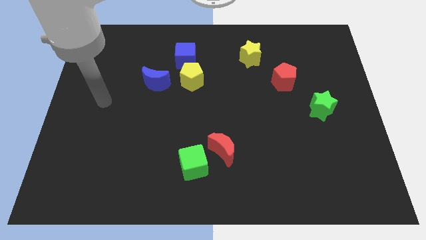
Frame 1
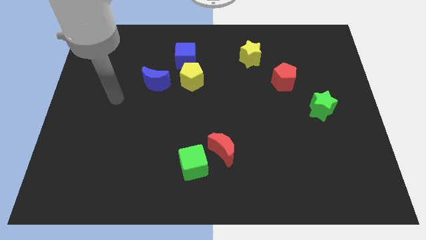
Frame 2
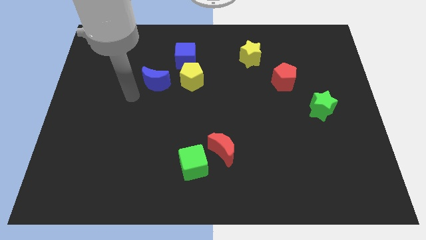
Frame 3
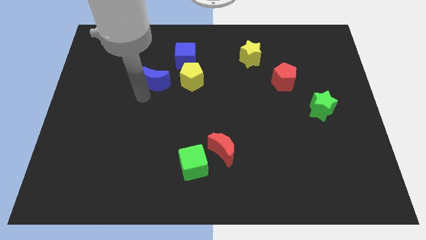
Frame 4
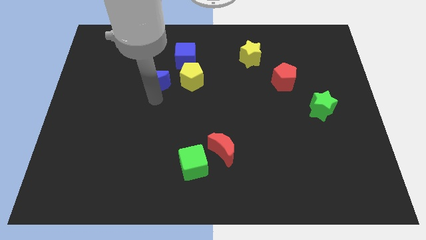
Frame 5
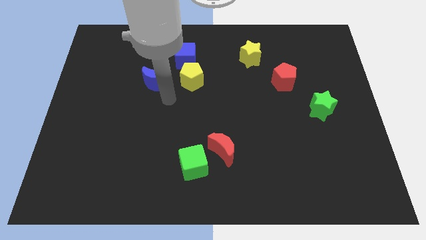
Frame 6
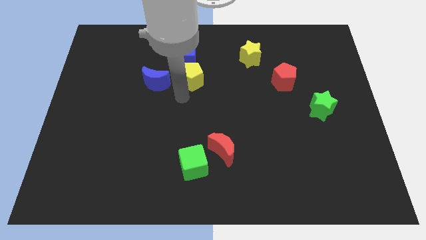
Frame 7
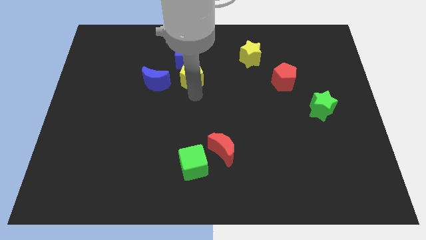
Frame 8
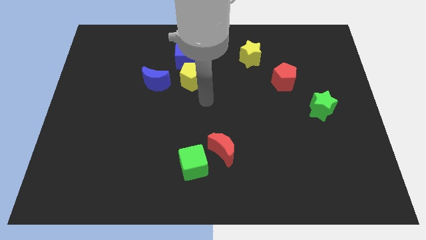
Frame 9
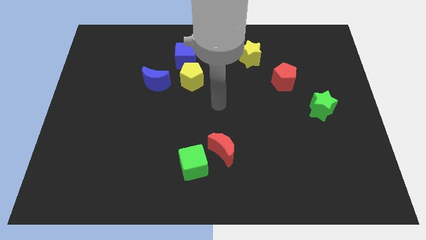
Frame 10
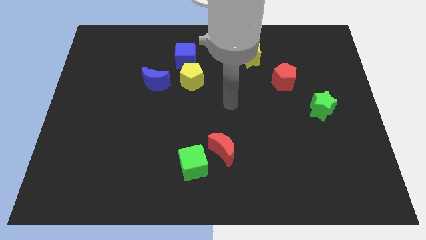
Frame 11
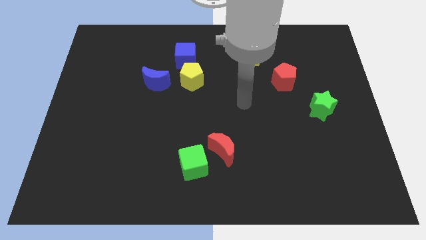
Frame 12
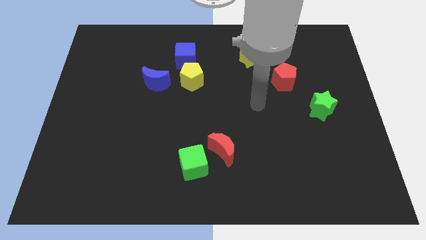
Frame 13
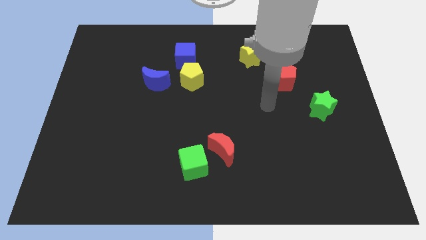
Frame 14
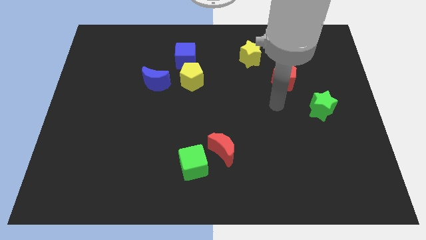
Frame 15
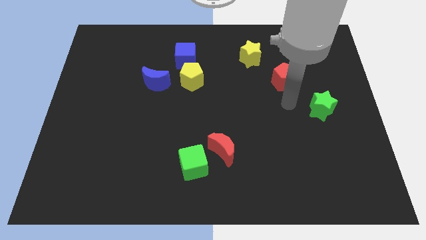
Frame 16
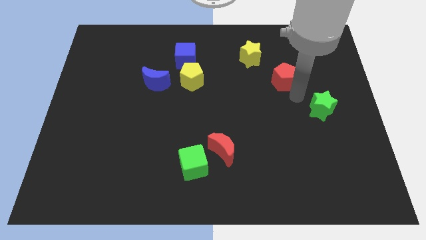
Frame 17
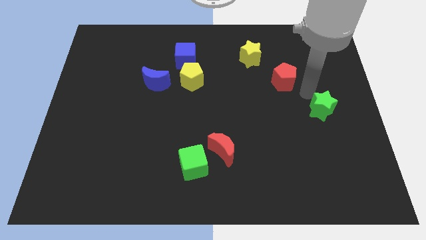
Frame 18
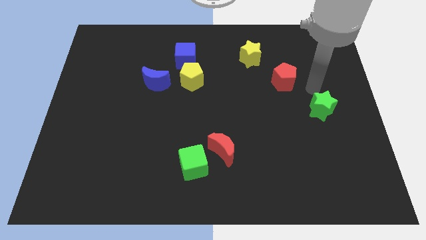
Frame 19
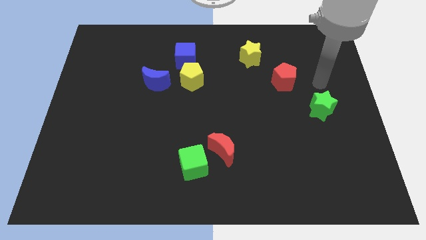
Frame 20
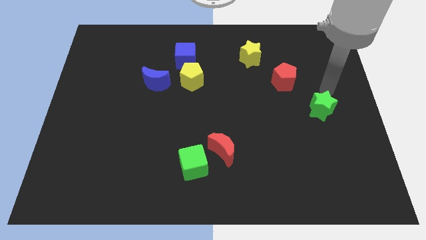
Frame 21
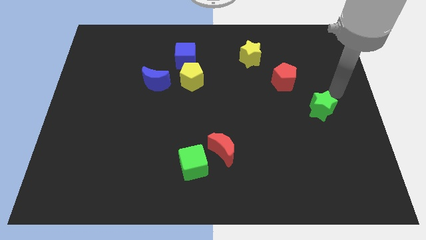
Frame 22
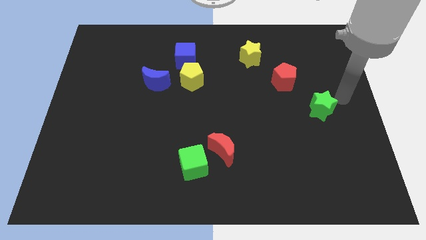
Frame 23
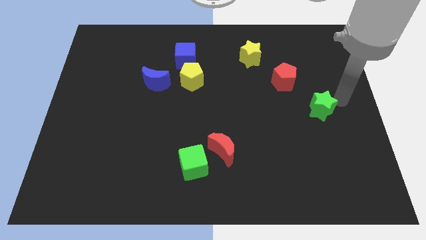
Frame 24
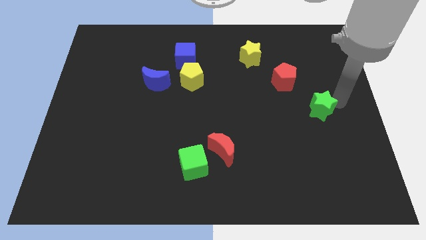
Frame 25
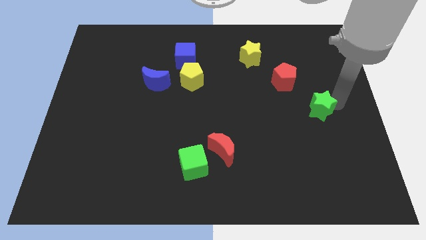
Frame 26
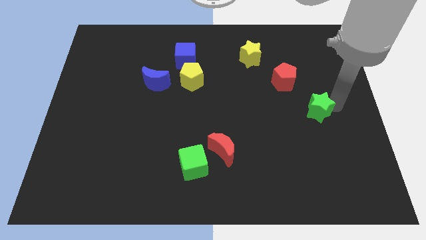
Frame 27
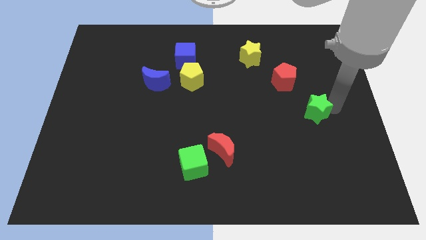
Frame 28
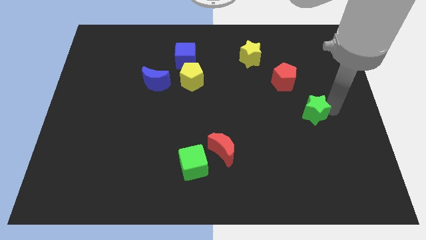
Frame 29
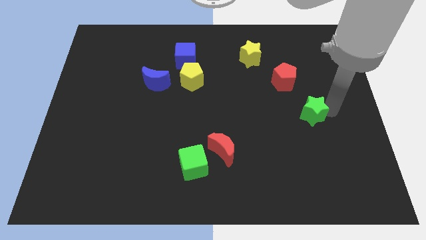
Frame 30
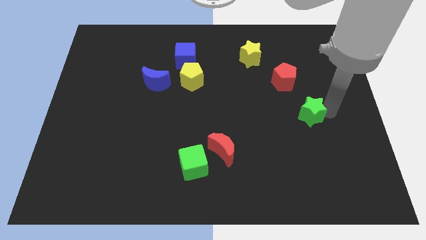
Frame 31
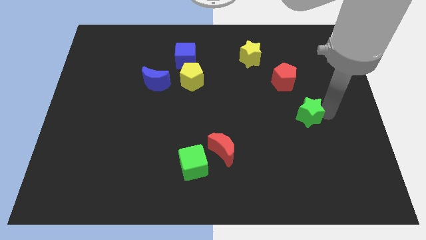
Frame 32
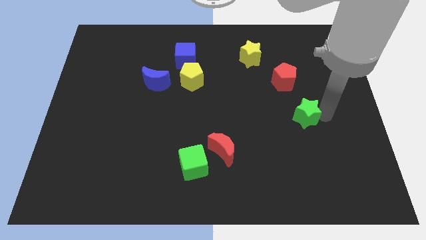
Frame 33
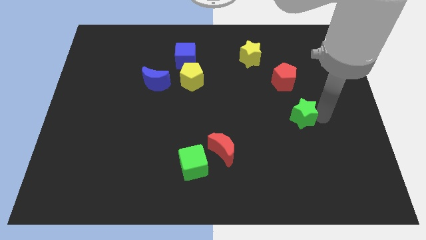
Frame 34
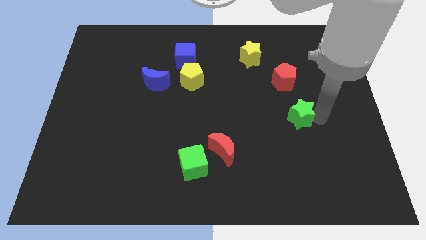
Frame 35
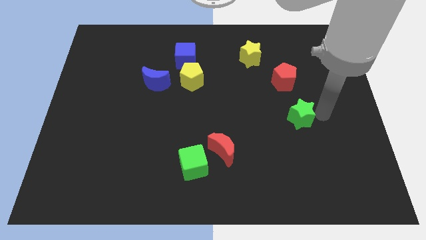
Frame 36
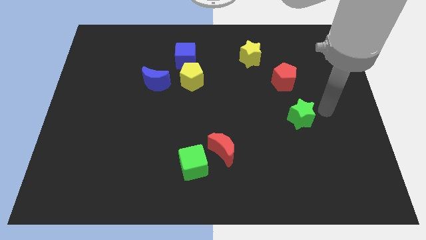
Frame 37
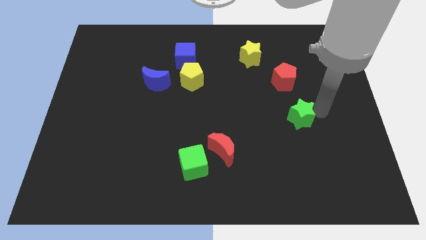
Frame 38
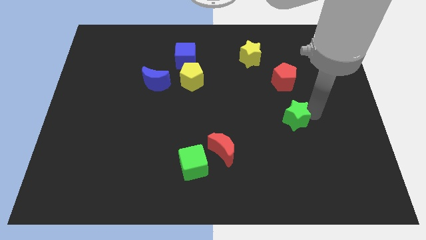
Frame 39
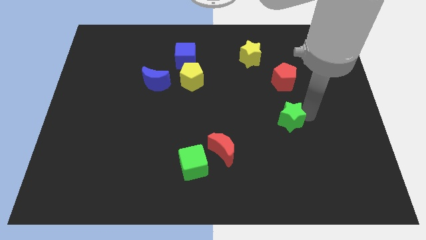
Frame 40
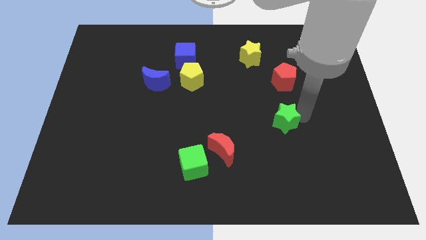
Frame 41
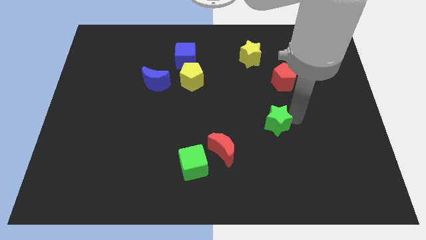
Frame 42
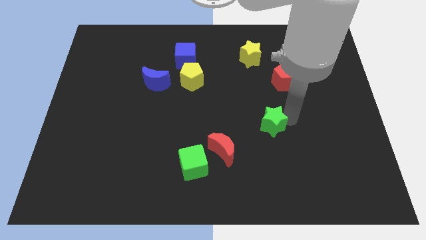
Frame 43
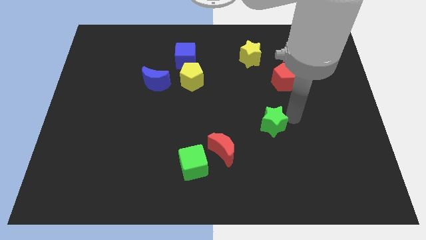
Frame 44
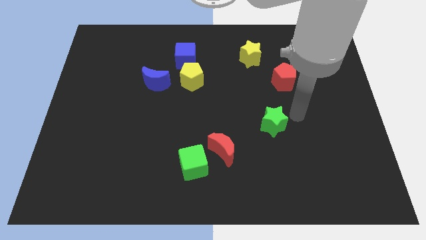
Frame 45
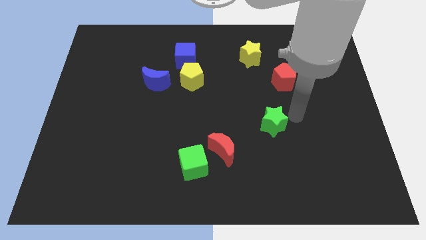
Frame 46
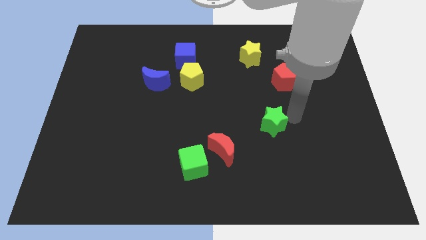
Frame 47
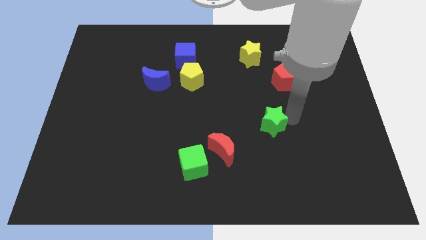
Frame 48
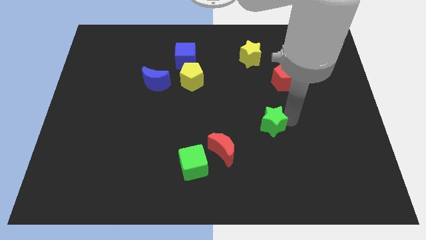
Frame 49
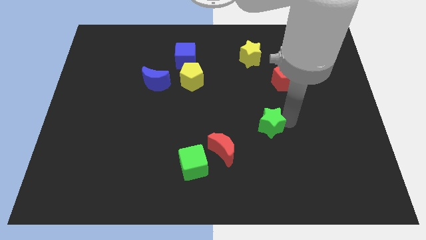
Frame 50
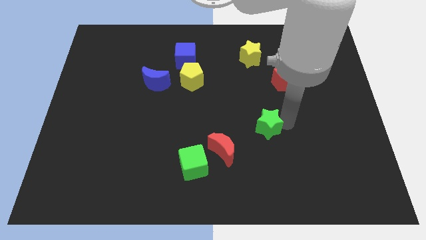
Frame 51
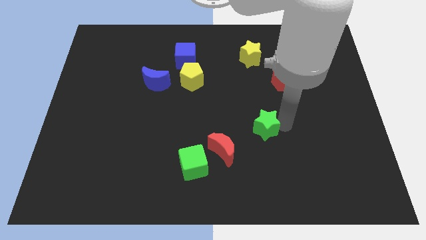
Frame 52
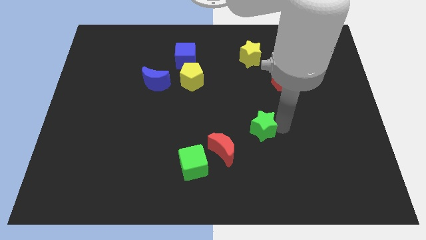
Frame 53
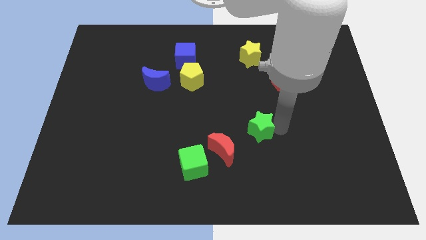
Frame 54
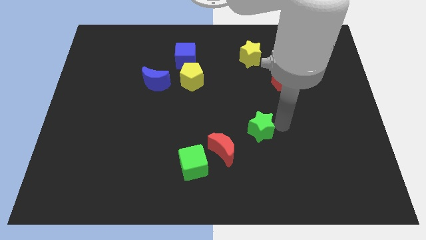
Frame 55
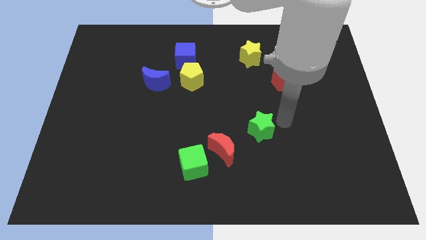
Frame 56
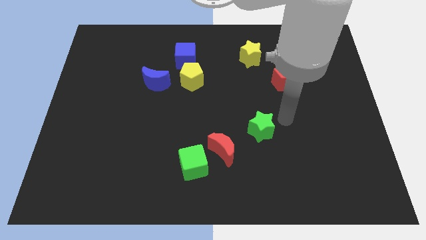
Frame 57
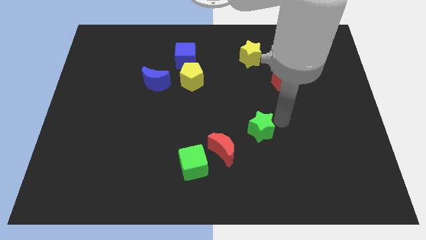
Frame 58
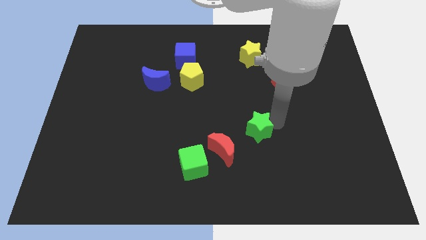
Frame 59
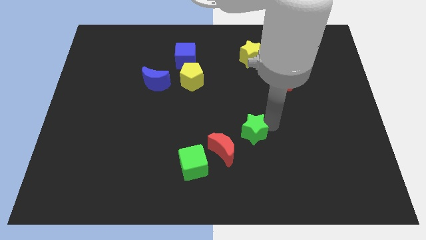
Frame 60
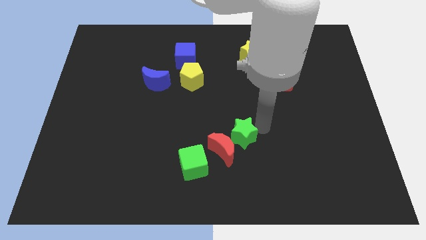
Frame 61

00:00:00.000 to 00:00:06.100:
move the green star next to the red moon

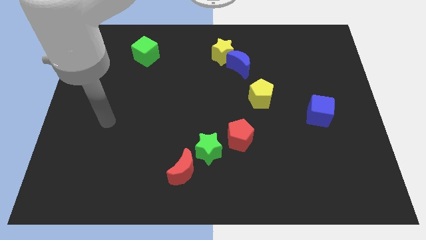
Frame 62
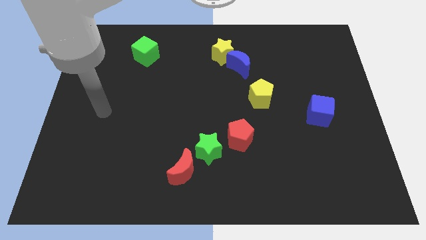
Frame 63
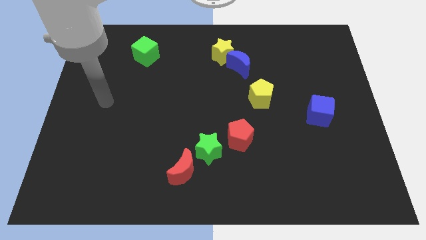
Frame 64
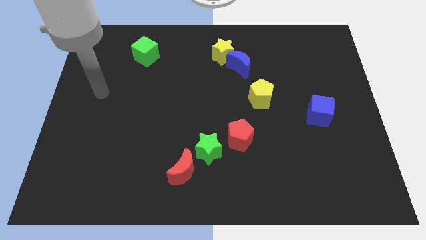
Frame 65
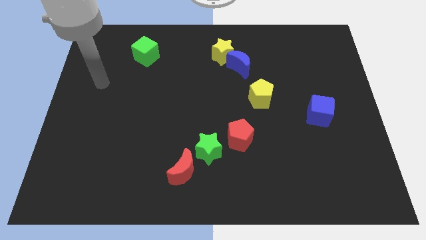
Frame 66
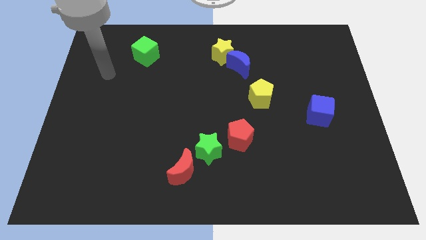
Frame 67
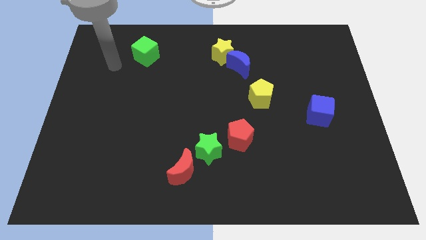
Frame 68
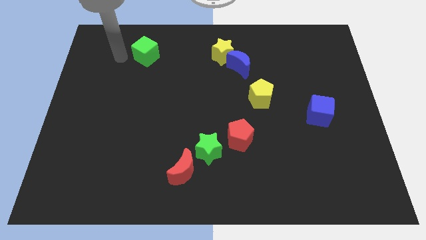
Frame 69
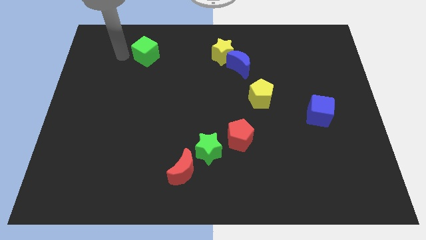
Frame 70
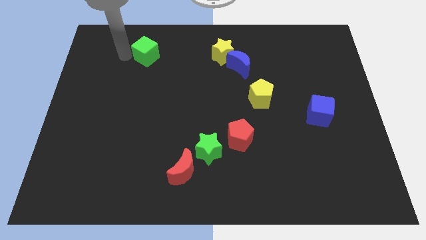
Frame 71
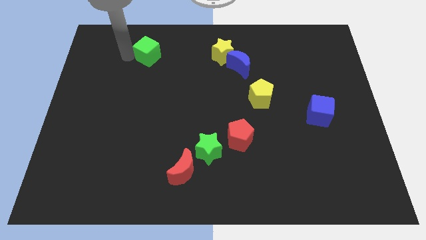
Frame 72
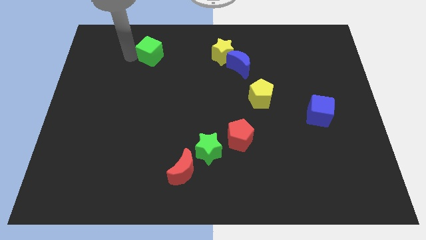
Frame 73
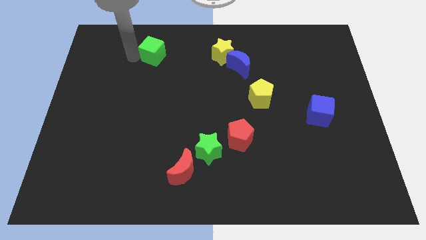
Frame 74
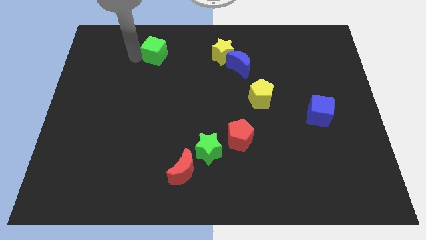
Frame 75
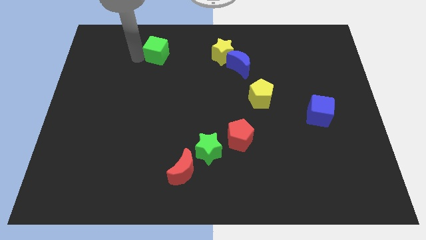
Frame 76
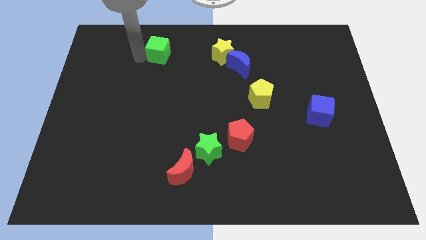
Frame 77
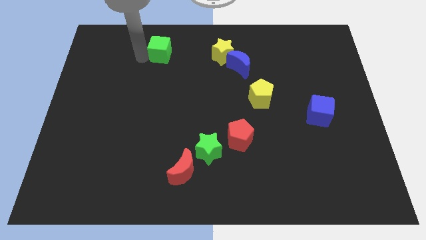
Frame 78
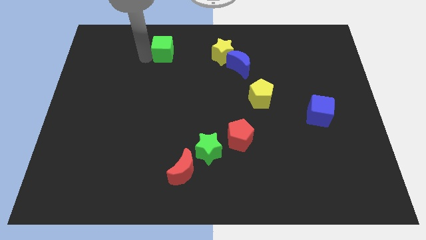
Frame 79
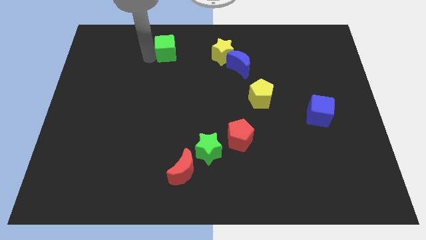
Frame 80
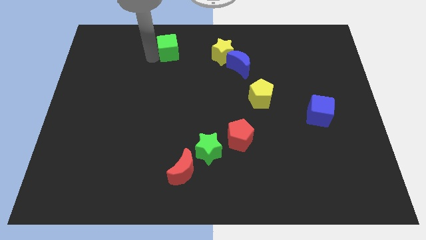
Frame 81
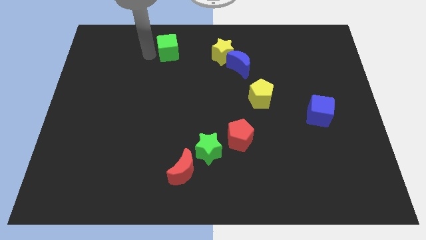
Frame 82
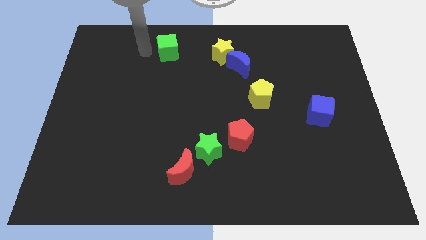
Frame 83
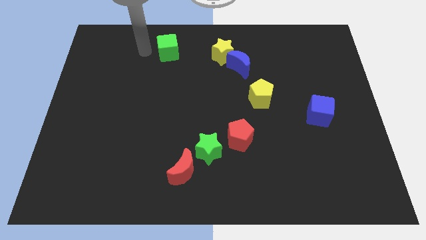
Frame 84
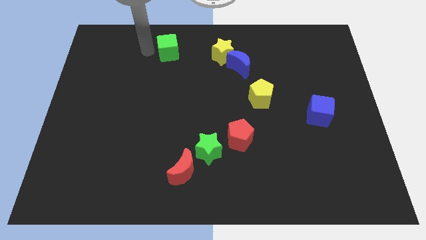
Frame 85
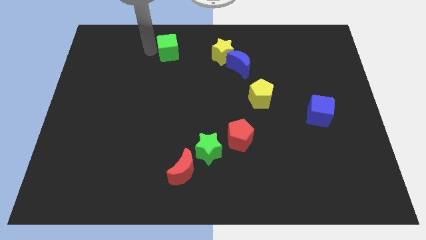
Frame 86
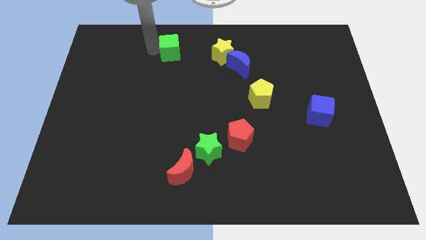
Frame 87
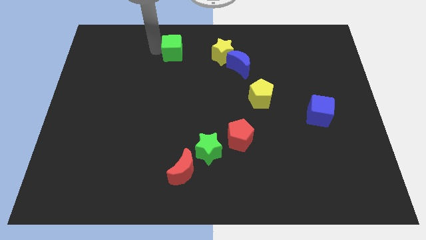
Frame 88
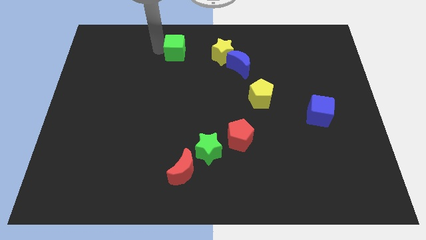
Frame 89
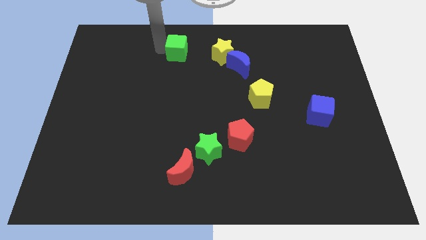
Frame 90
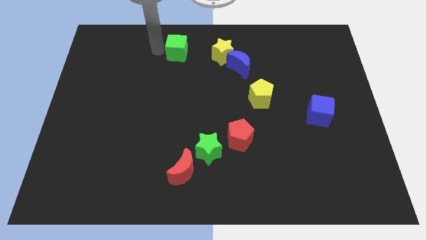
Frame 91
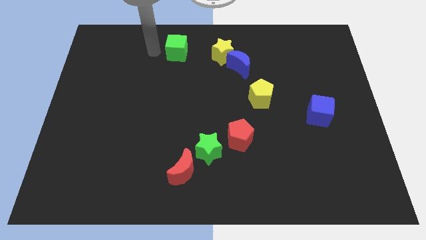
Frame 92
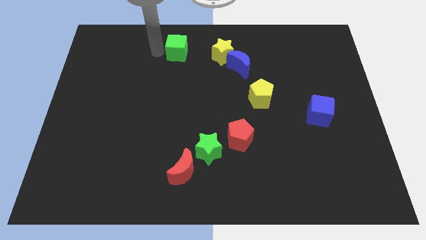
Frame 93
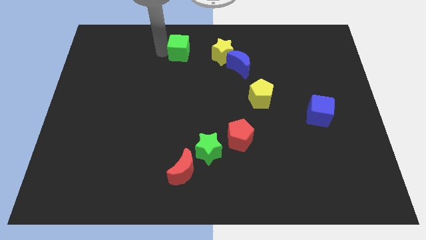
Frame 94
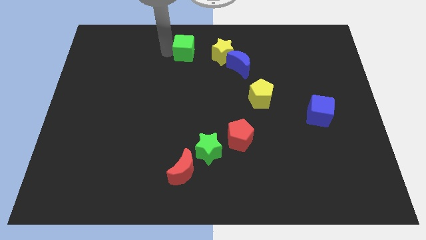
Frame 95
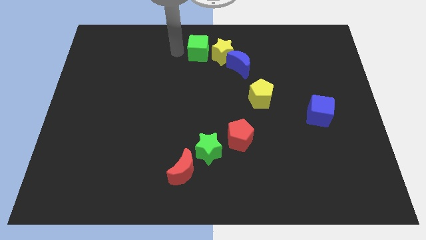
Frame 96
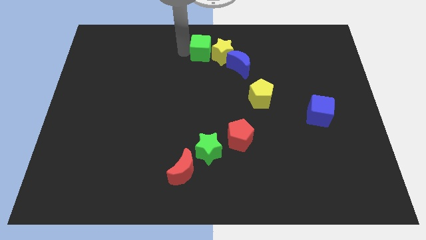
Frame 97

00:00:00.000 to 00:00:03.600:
put the green cube close to the yellow star
